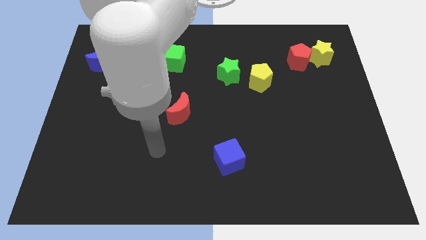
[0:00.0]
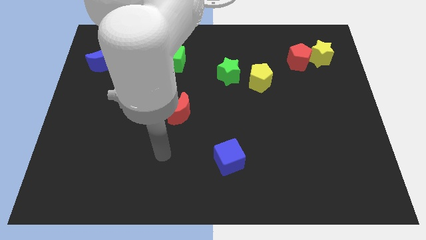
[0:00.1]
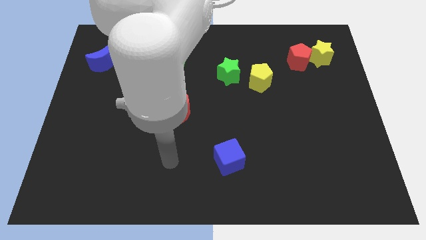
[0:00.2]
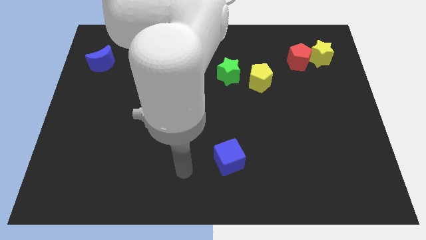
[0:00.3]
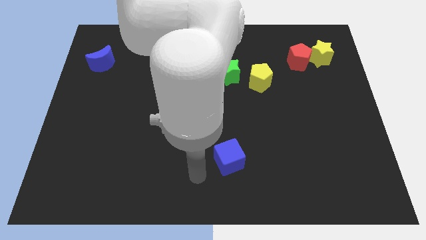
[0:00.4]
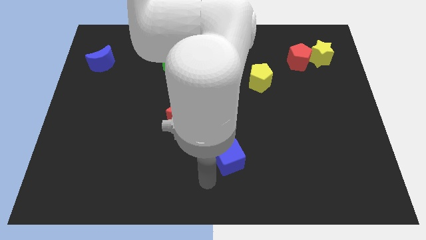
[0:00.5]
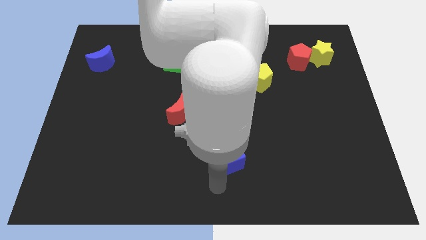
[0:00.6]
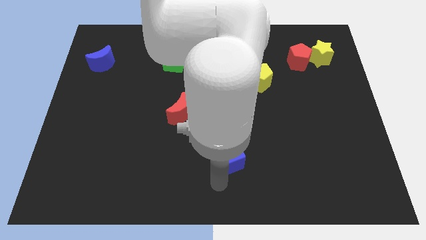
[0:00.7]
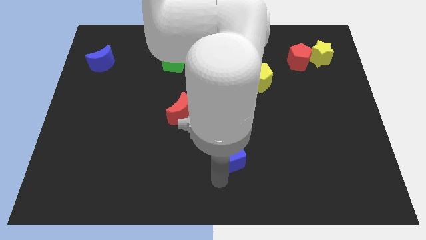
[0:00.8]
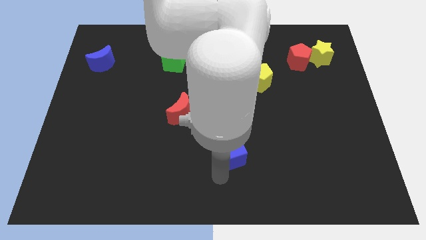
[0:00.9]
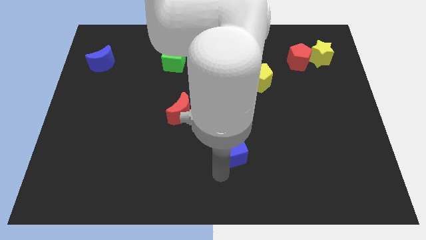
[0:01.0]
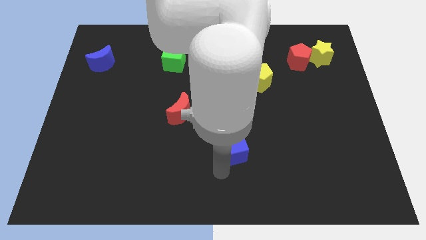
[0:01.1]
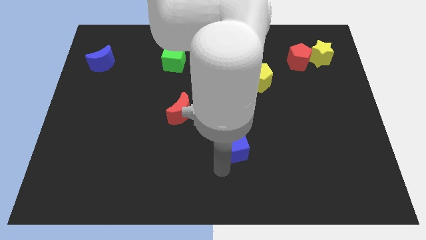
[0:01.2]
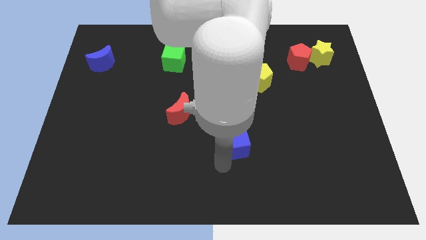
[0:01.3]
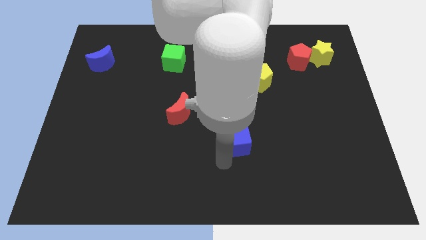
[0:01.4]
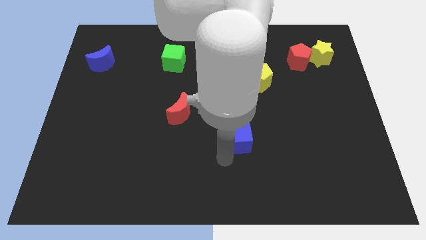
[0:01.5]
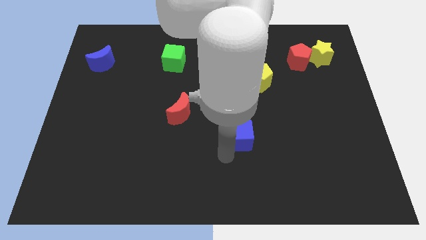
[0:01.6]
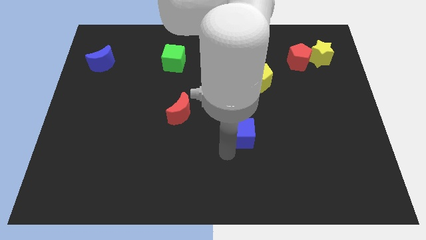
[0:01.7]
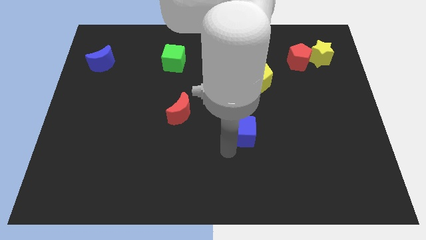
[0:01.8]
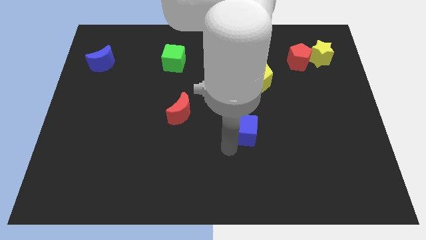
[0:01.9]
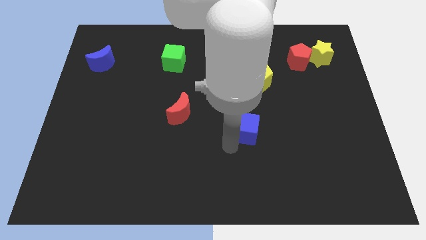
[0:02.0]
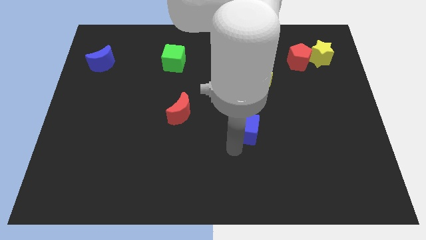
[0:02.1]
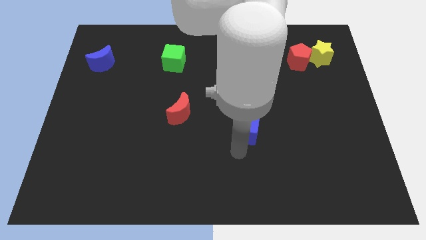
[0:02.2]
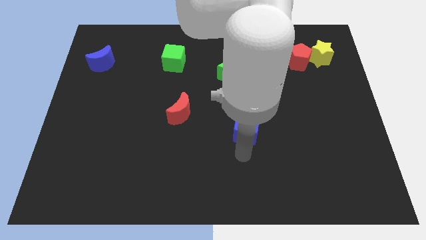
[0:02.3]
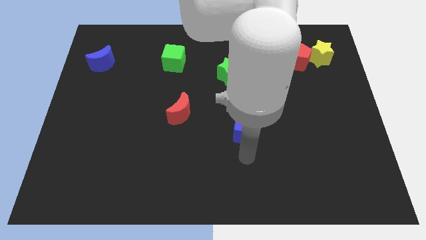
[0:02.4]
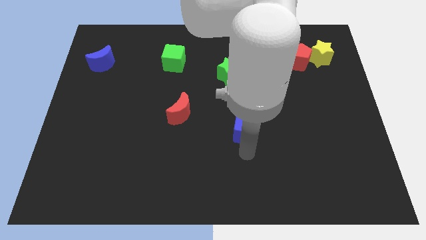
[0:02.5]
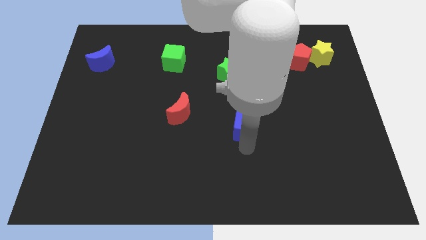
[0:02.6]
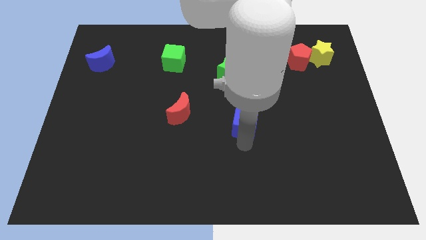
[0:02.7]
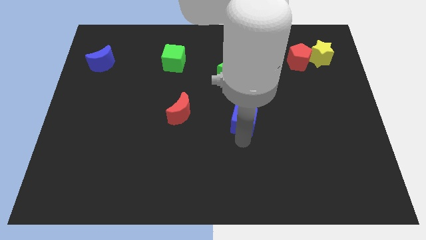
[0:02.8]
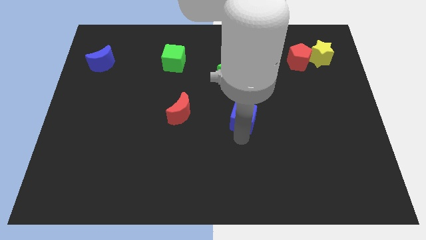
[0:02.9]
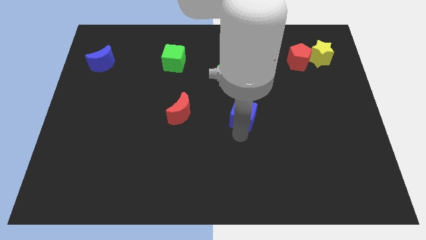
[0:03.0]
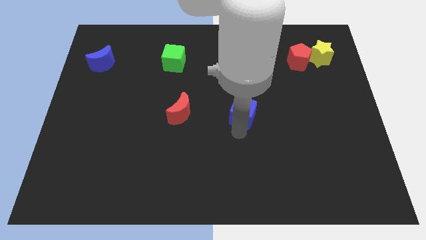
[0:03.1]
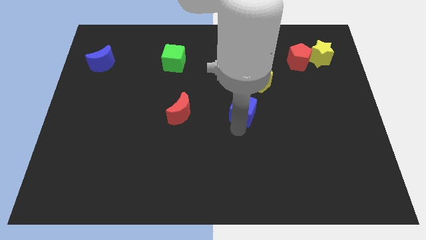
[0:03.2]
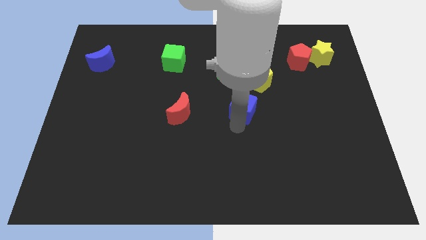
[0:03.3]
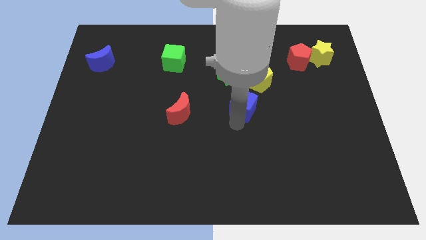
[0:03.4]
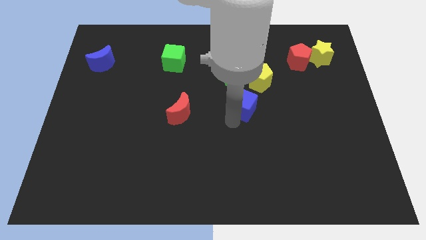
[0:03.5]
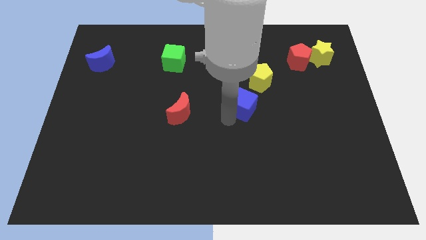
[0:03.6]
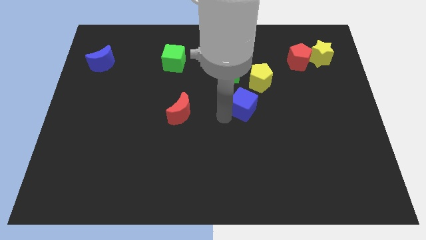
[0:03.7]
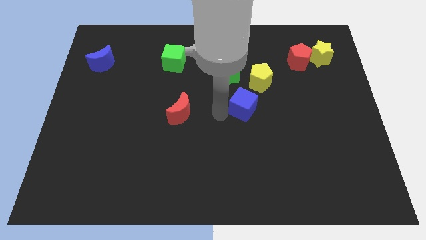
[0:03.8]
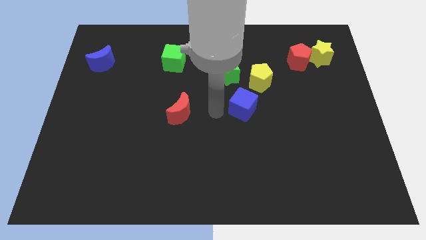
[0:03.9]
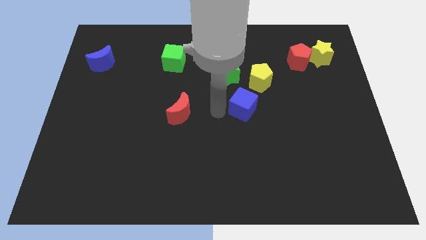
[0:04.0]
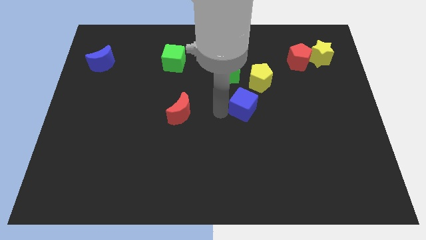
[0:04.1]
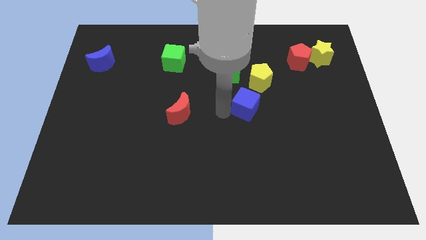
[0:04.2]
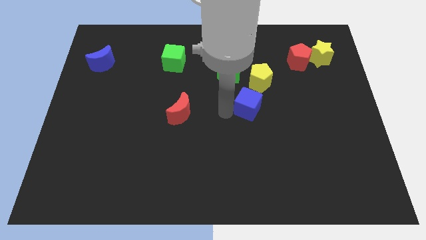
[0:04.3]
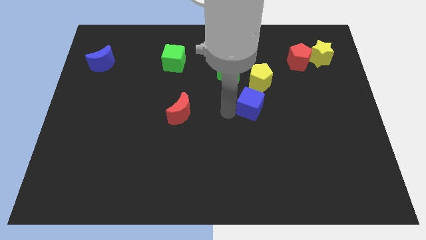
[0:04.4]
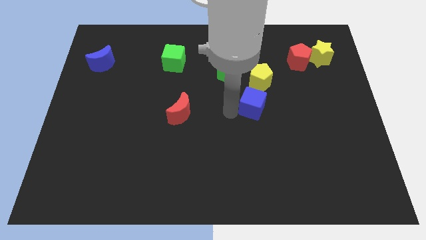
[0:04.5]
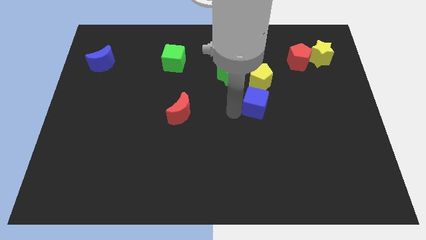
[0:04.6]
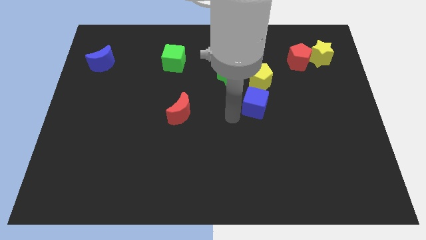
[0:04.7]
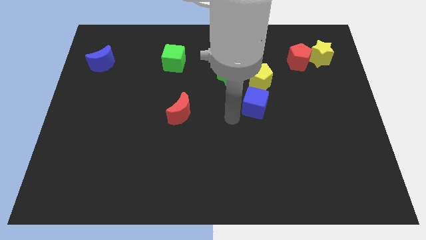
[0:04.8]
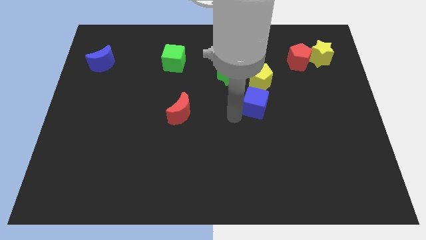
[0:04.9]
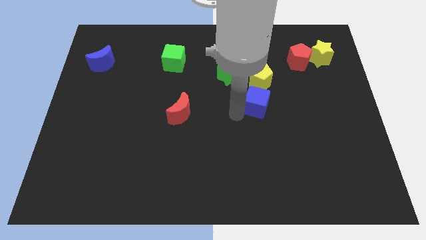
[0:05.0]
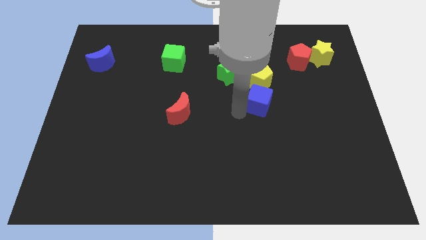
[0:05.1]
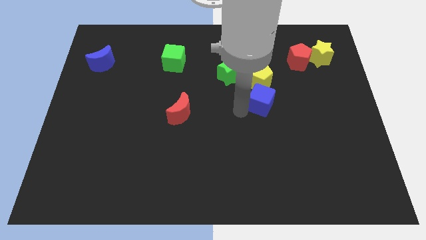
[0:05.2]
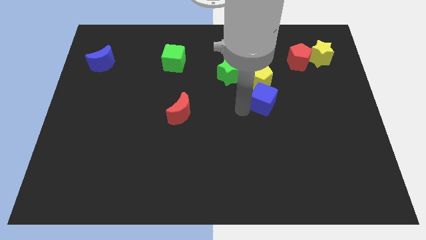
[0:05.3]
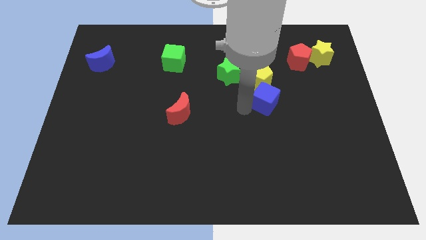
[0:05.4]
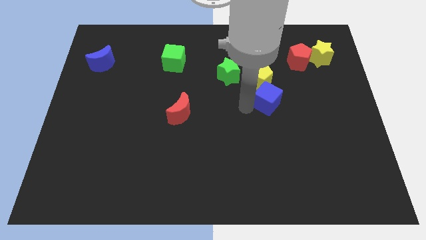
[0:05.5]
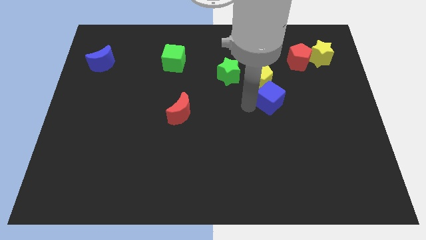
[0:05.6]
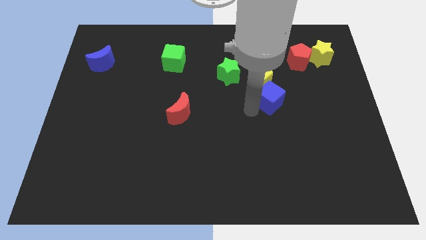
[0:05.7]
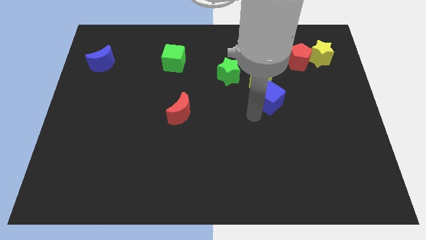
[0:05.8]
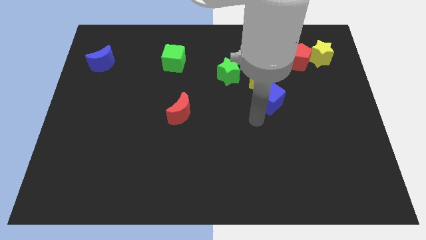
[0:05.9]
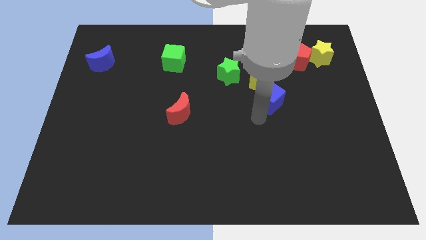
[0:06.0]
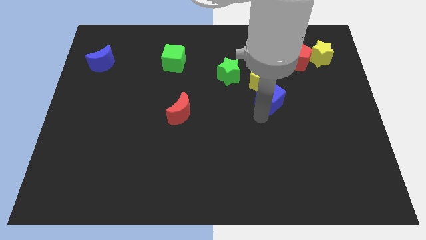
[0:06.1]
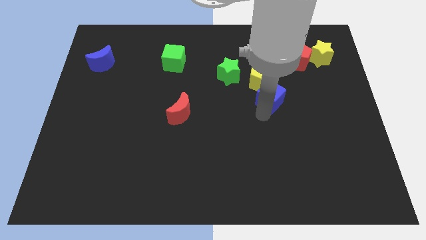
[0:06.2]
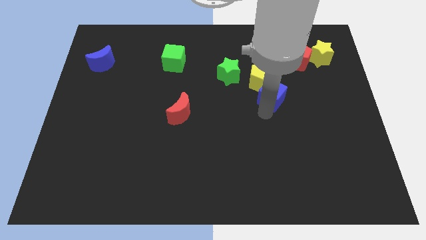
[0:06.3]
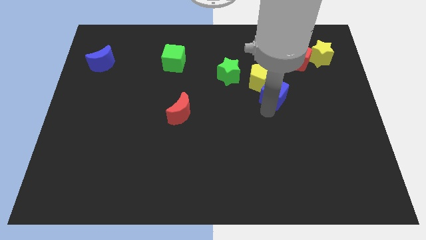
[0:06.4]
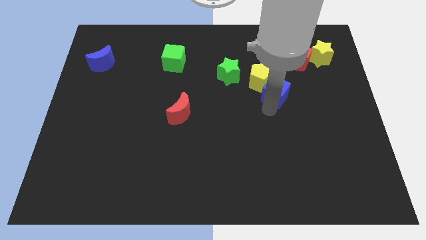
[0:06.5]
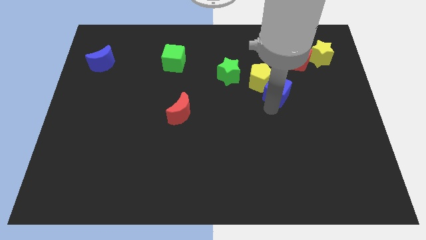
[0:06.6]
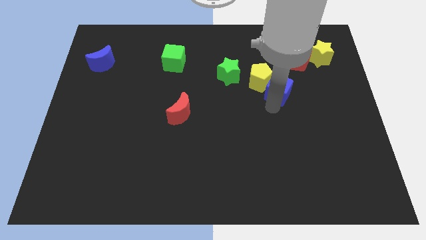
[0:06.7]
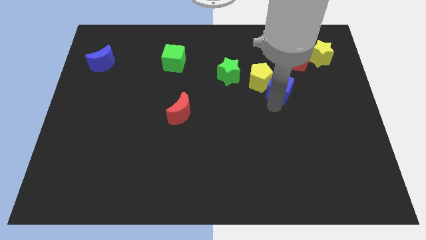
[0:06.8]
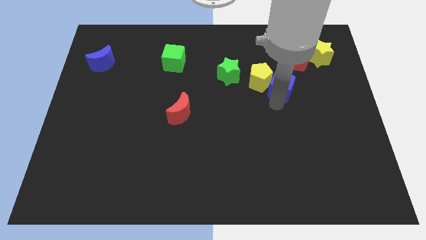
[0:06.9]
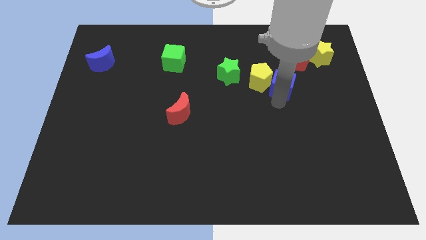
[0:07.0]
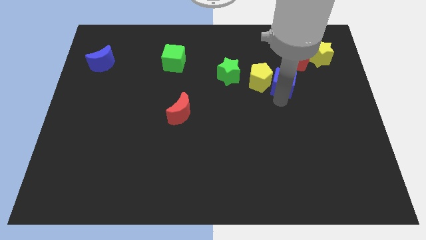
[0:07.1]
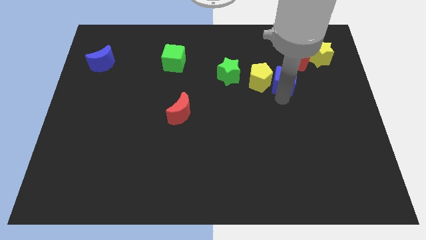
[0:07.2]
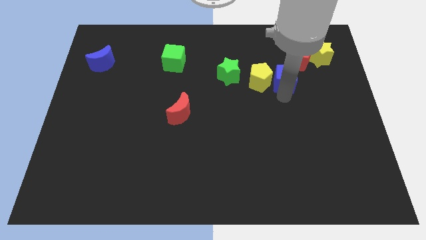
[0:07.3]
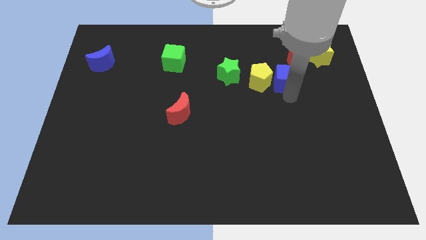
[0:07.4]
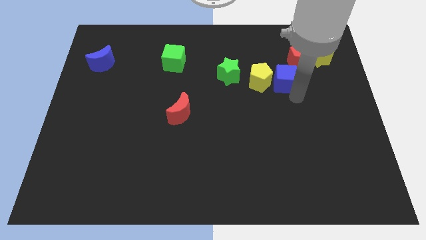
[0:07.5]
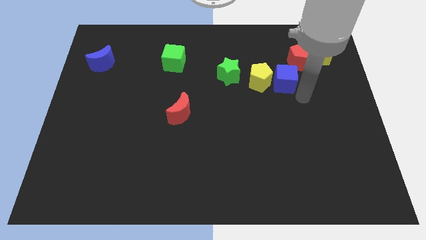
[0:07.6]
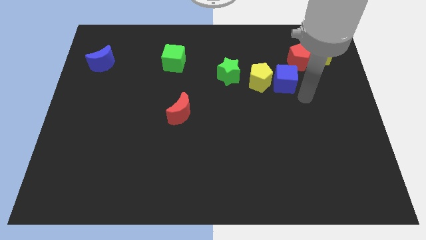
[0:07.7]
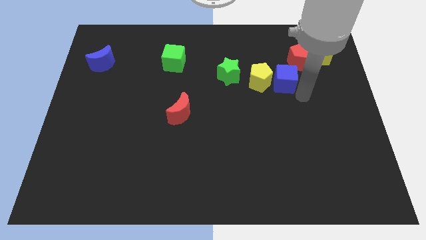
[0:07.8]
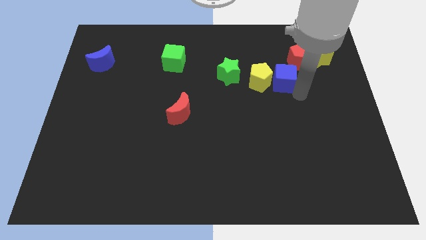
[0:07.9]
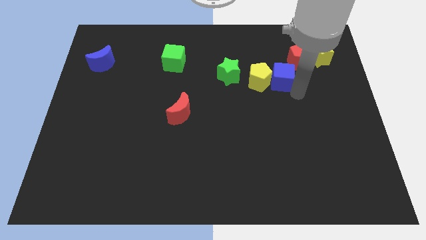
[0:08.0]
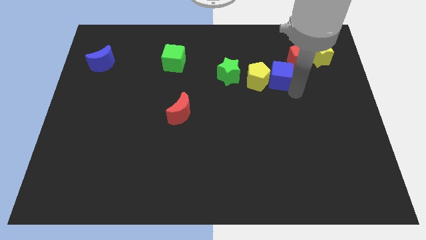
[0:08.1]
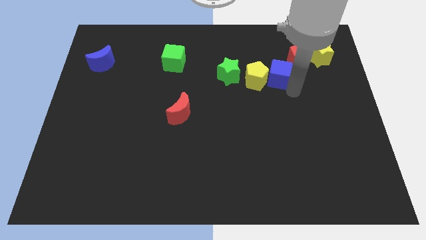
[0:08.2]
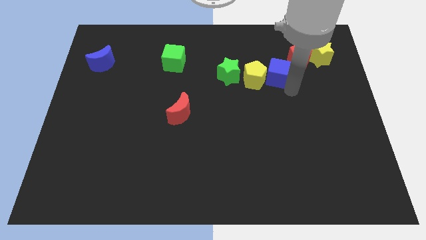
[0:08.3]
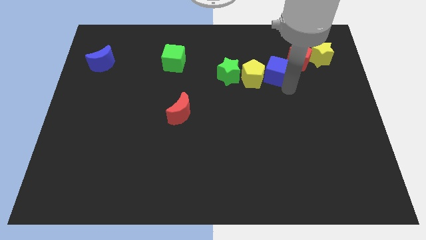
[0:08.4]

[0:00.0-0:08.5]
slide the blue cube just left of the red pentagon
